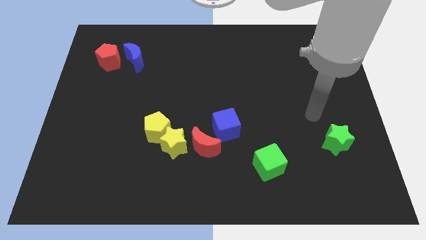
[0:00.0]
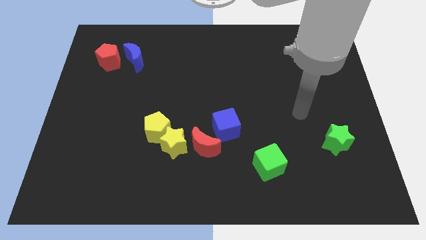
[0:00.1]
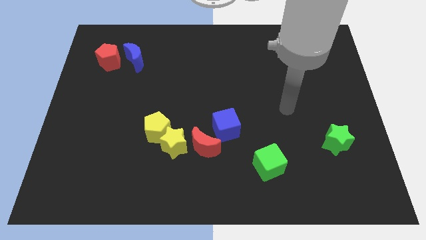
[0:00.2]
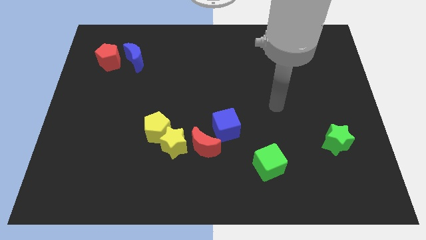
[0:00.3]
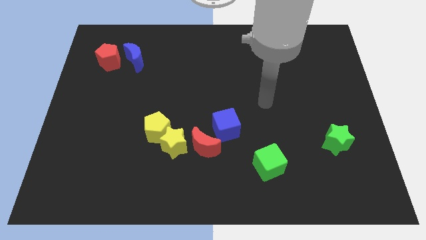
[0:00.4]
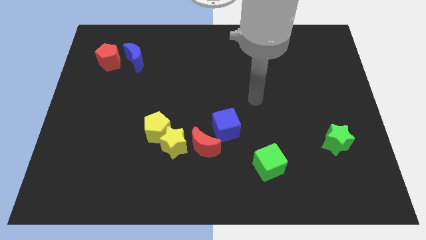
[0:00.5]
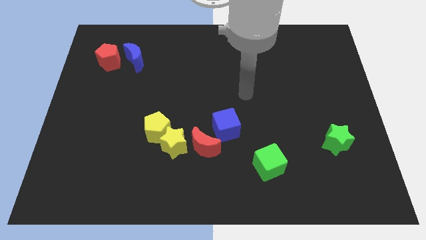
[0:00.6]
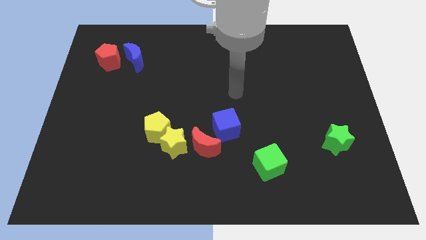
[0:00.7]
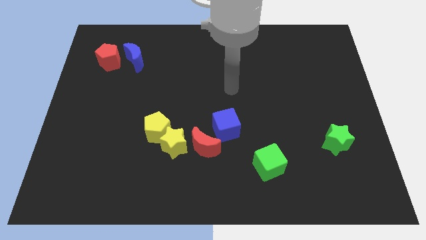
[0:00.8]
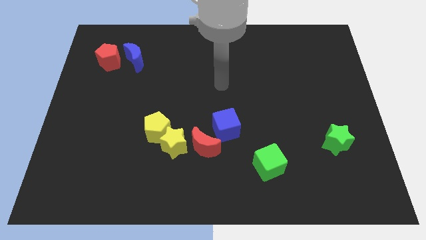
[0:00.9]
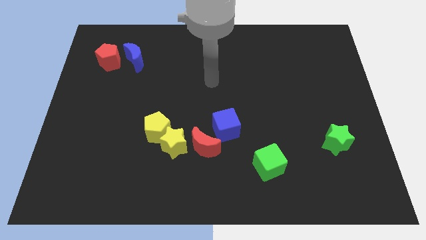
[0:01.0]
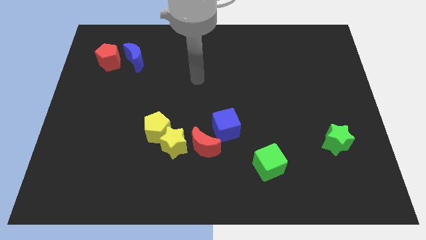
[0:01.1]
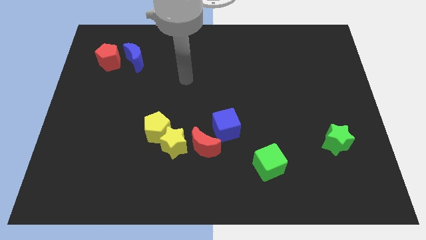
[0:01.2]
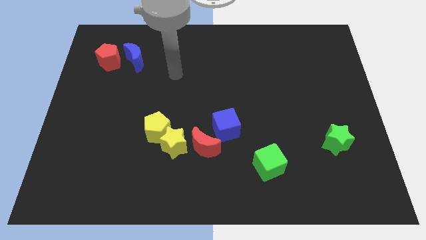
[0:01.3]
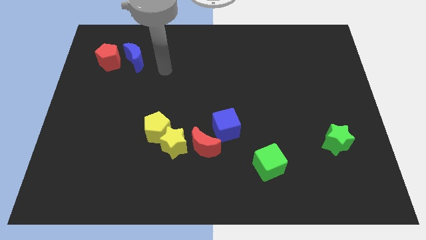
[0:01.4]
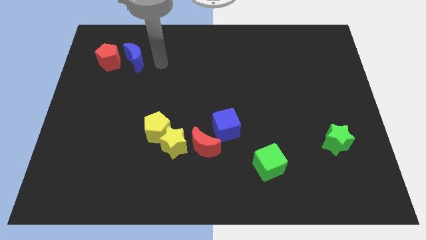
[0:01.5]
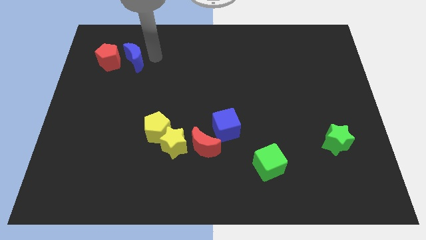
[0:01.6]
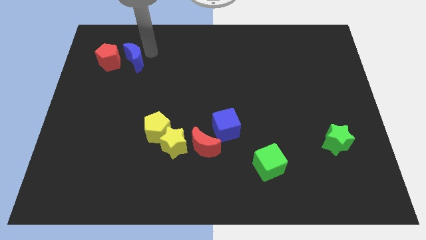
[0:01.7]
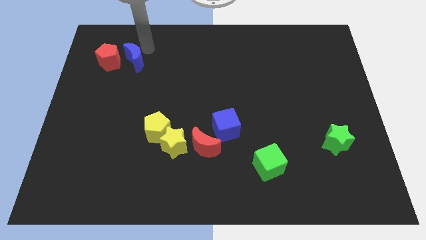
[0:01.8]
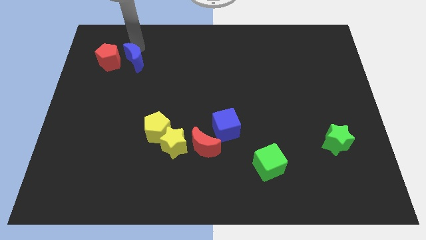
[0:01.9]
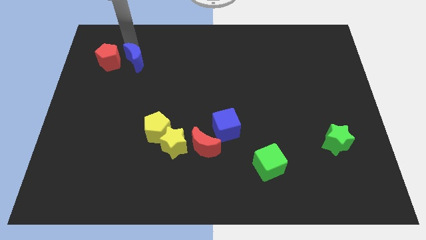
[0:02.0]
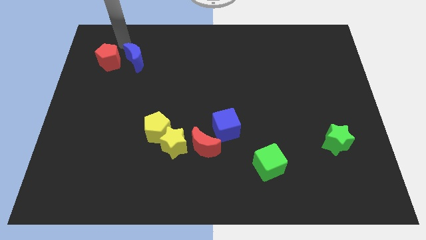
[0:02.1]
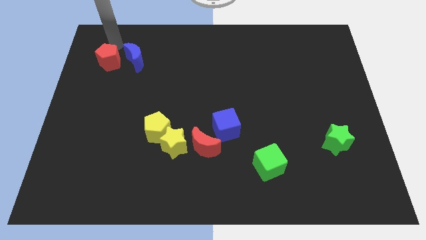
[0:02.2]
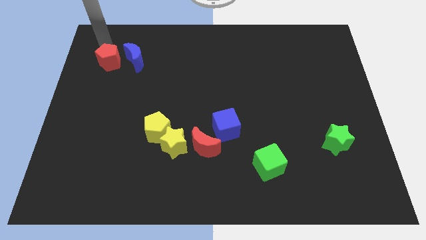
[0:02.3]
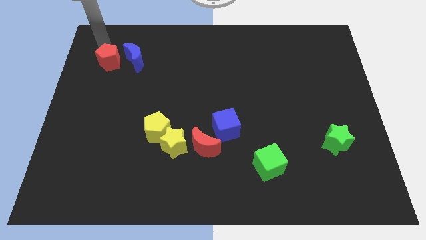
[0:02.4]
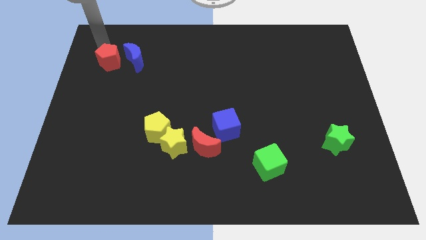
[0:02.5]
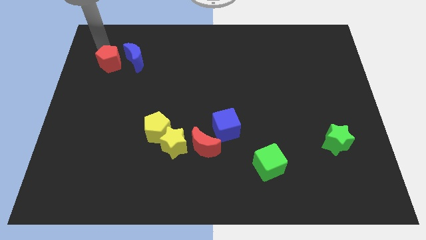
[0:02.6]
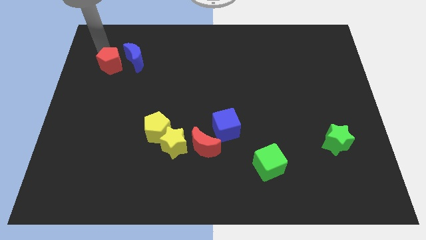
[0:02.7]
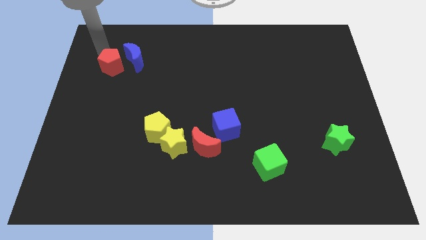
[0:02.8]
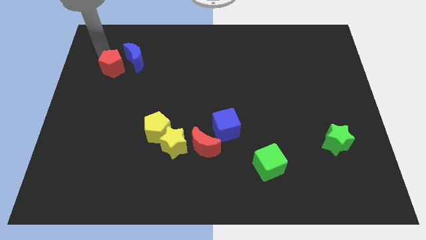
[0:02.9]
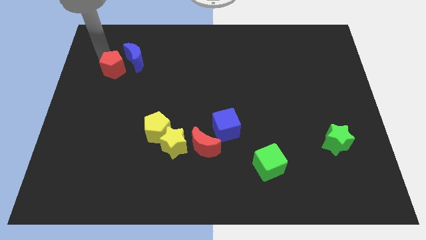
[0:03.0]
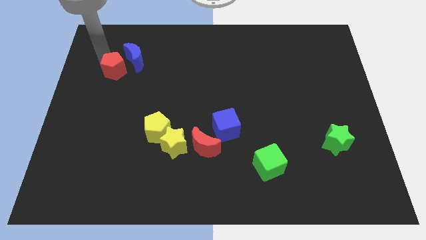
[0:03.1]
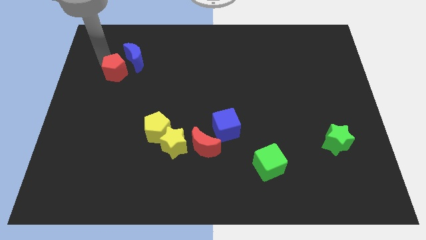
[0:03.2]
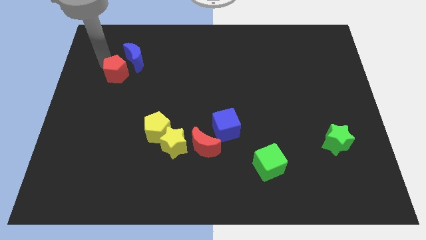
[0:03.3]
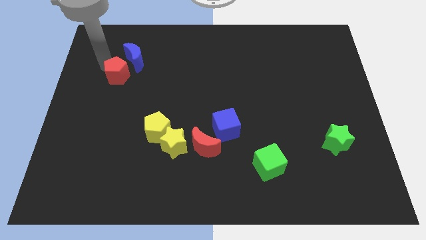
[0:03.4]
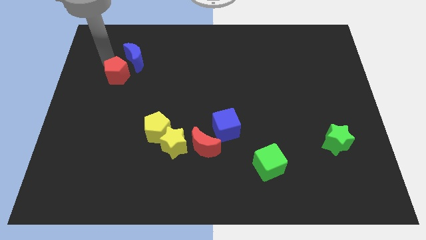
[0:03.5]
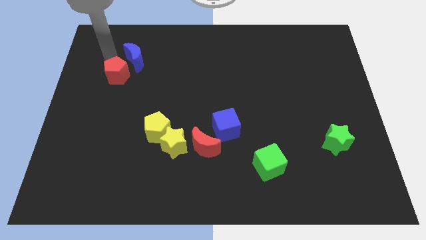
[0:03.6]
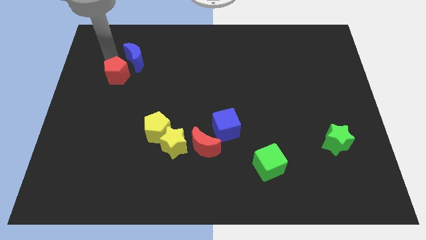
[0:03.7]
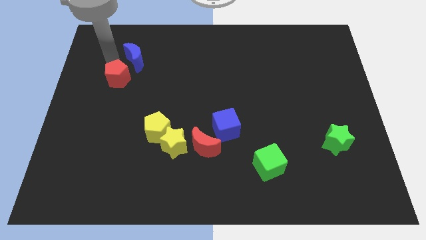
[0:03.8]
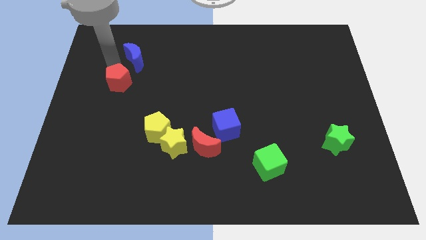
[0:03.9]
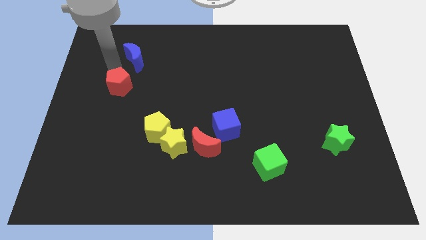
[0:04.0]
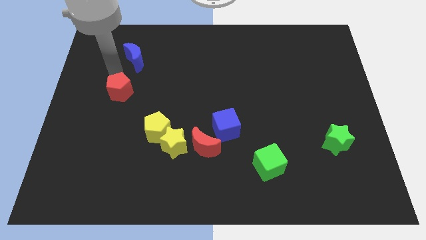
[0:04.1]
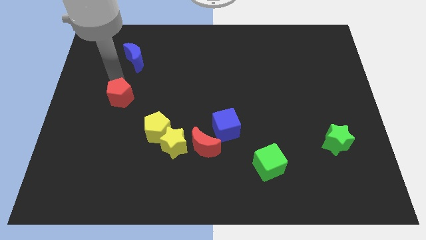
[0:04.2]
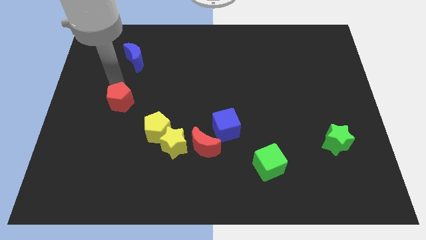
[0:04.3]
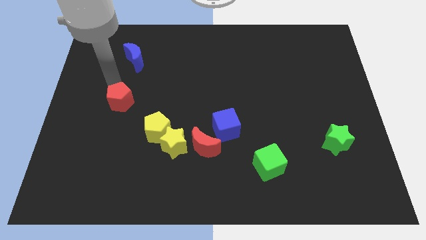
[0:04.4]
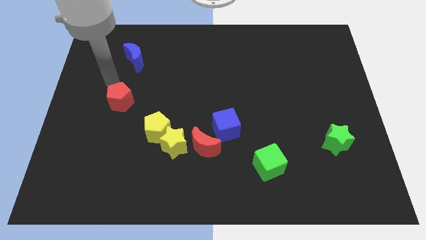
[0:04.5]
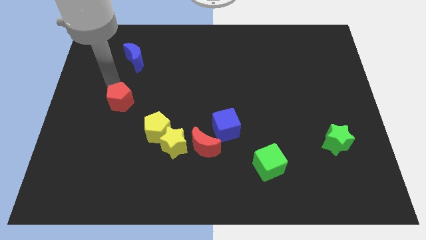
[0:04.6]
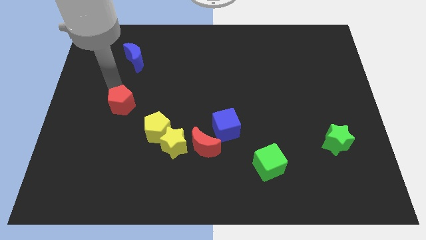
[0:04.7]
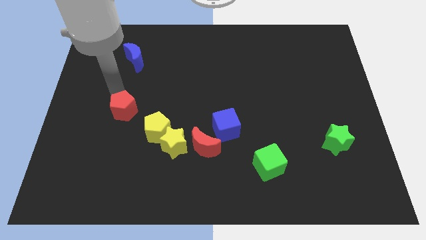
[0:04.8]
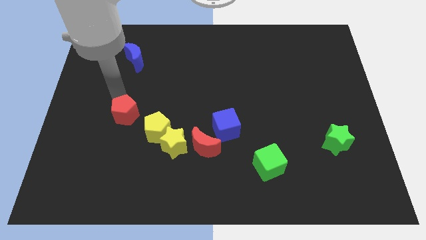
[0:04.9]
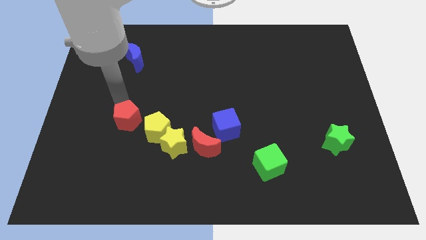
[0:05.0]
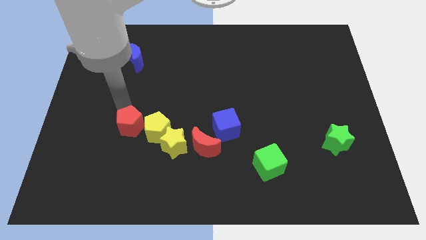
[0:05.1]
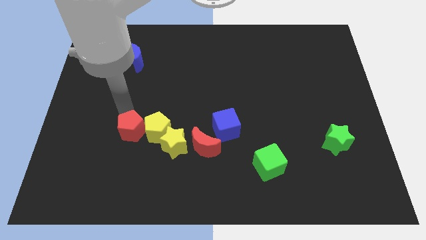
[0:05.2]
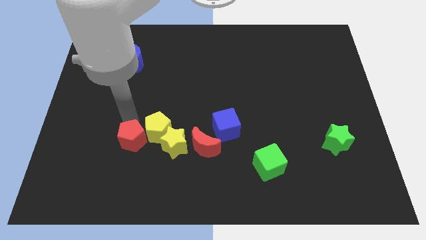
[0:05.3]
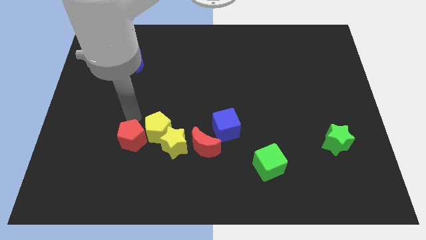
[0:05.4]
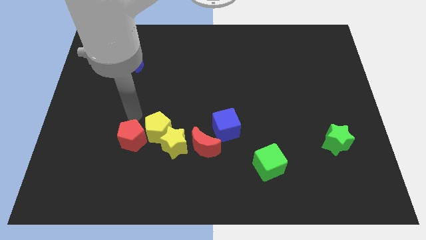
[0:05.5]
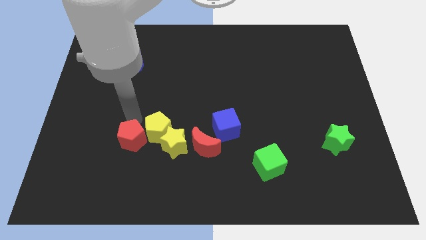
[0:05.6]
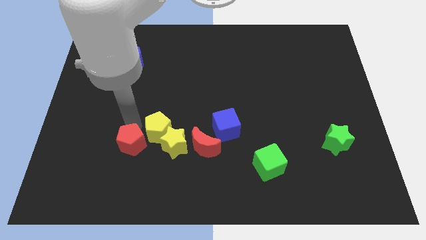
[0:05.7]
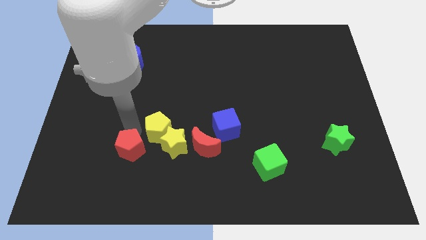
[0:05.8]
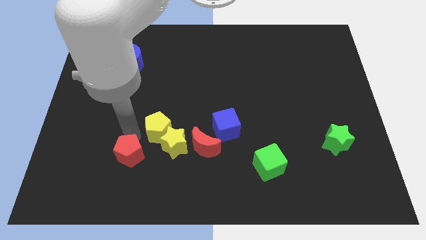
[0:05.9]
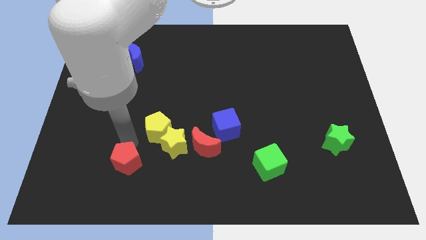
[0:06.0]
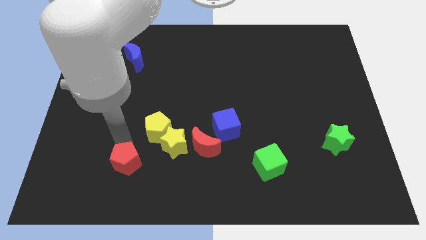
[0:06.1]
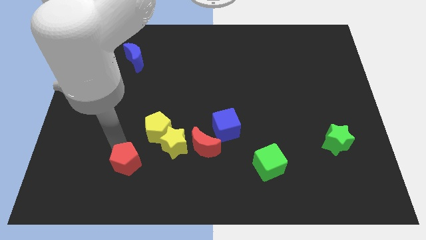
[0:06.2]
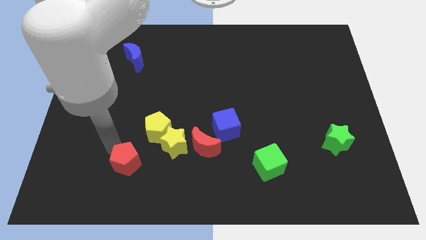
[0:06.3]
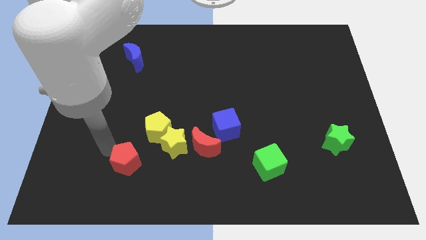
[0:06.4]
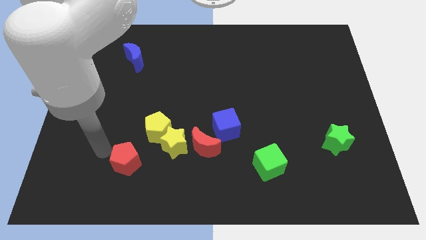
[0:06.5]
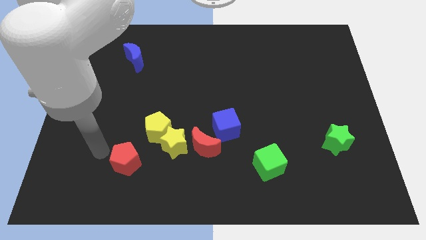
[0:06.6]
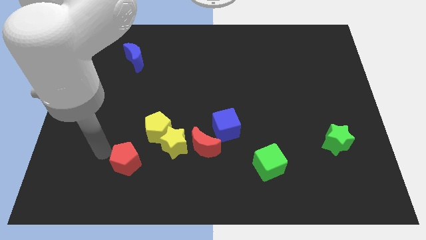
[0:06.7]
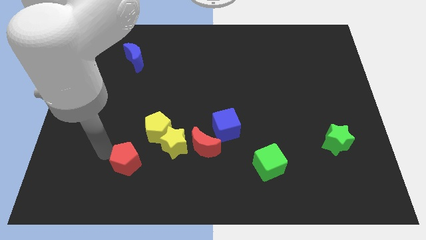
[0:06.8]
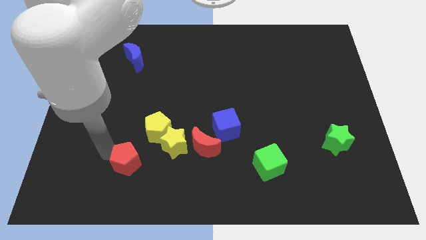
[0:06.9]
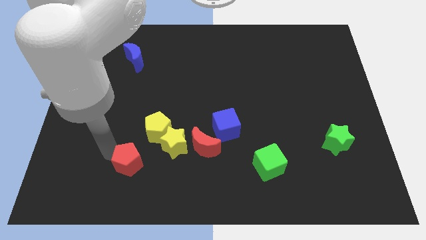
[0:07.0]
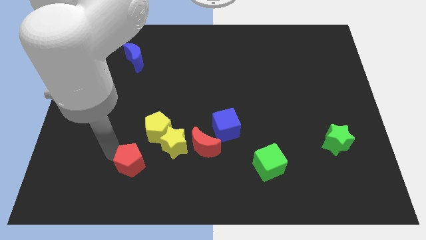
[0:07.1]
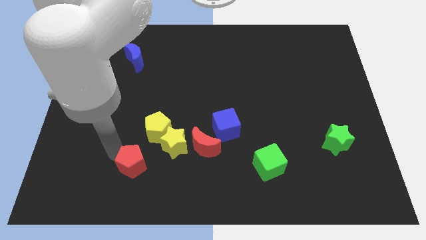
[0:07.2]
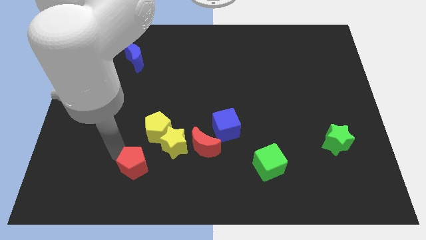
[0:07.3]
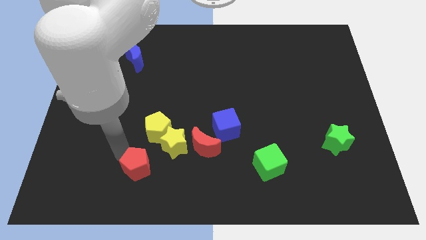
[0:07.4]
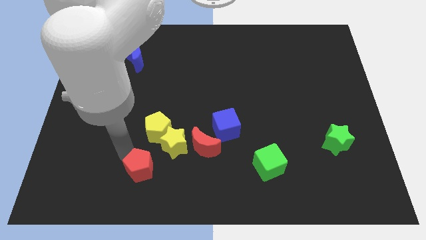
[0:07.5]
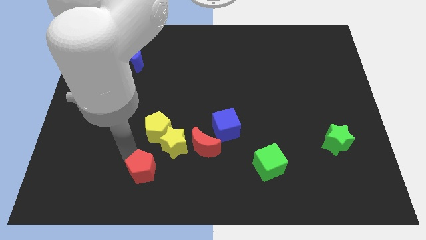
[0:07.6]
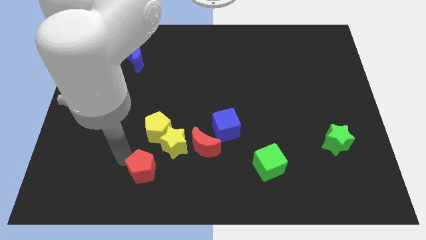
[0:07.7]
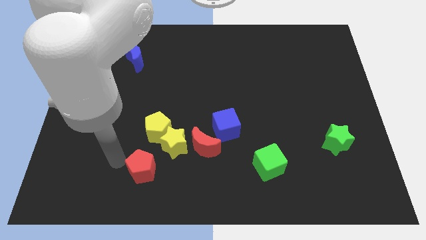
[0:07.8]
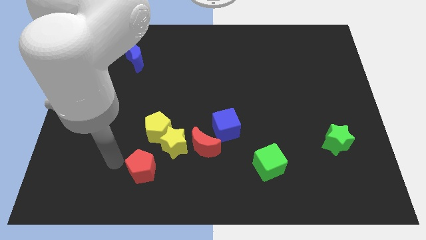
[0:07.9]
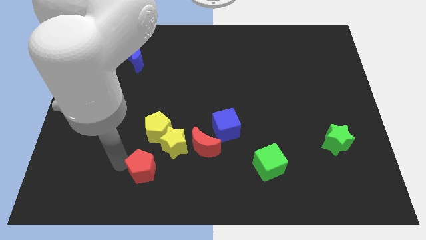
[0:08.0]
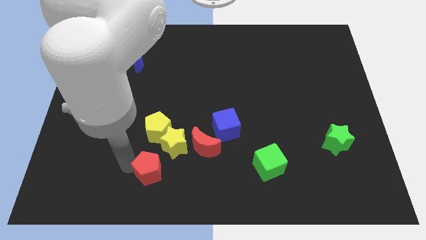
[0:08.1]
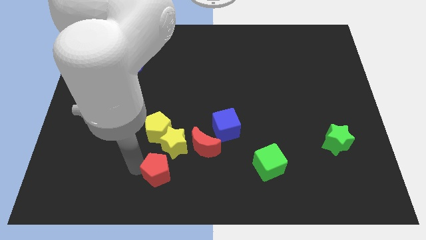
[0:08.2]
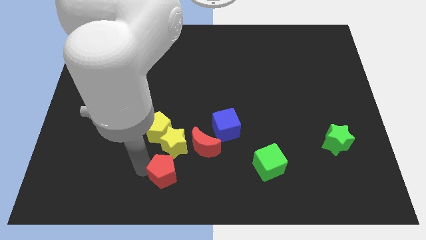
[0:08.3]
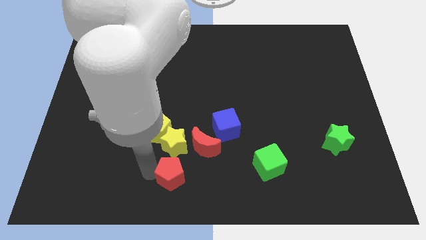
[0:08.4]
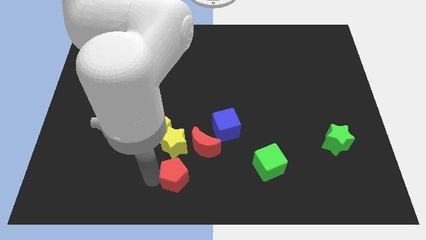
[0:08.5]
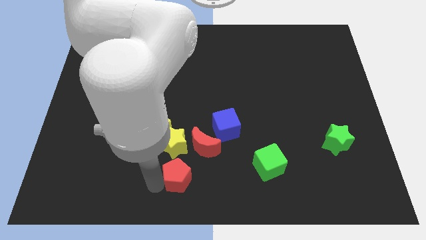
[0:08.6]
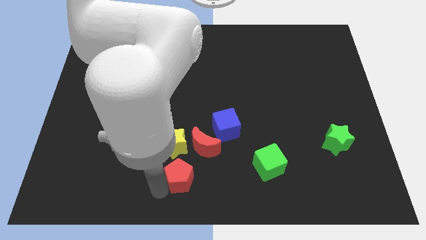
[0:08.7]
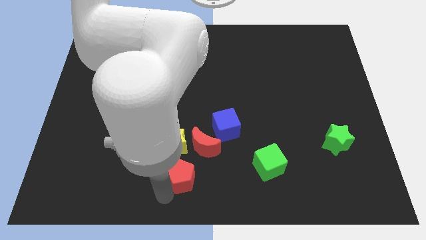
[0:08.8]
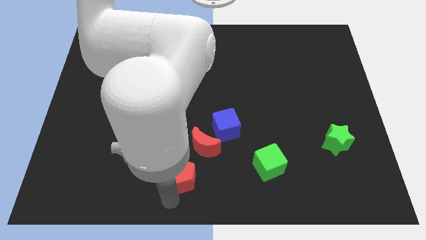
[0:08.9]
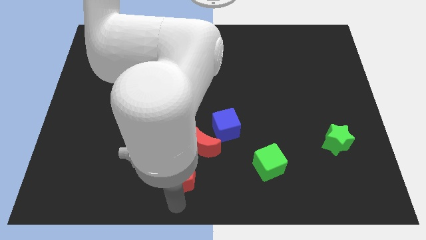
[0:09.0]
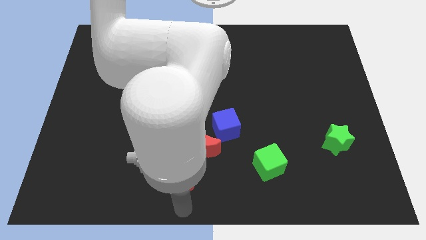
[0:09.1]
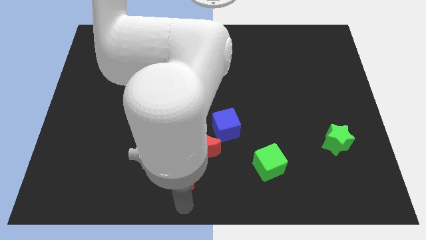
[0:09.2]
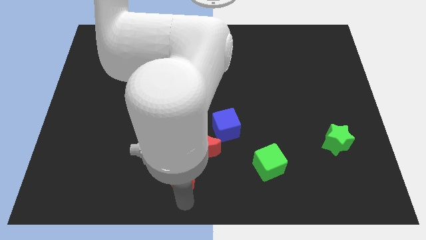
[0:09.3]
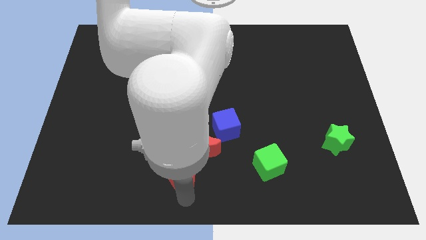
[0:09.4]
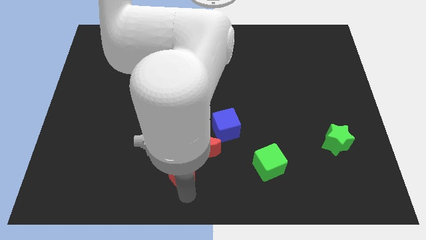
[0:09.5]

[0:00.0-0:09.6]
move the red pentagon diagonally down and to the right of the yellow pentagon
